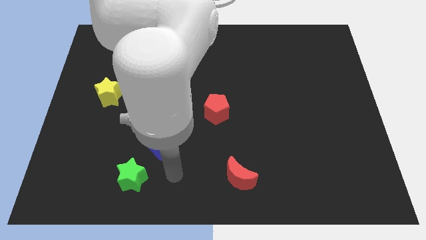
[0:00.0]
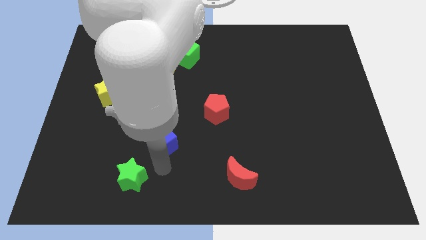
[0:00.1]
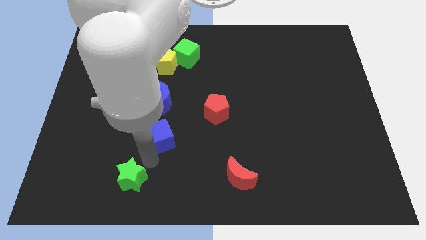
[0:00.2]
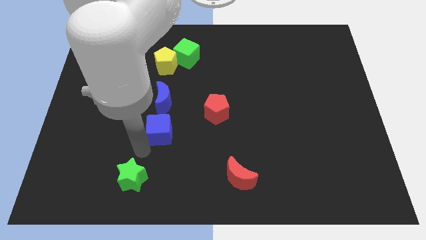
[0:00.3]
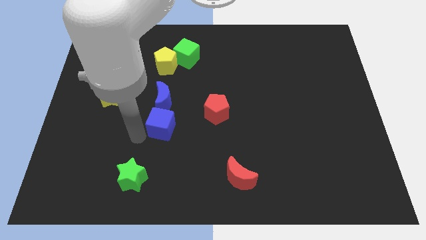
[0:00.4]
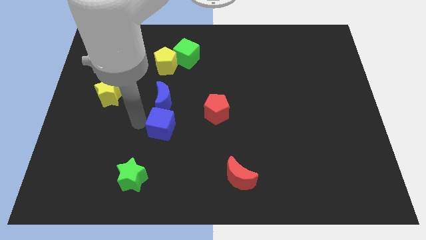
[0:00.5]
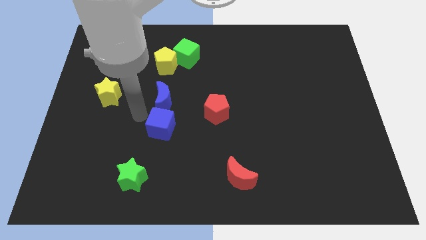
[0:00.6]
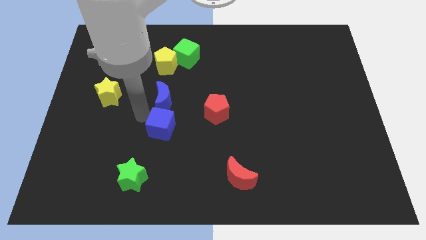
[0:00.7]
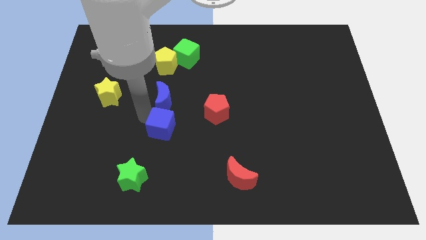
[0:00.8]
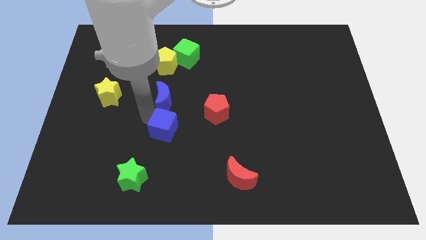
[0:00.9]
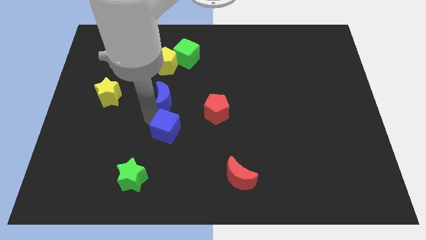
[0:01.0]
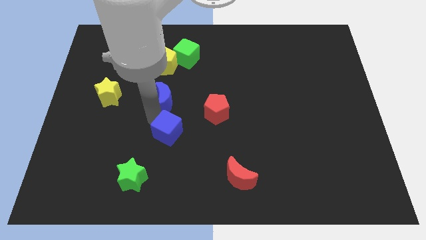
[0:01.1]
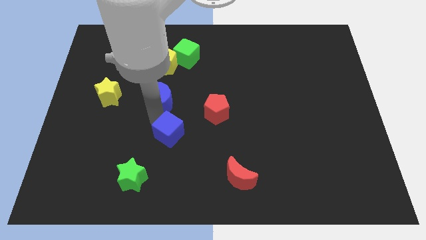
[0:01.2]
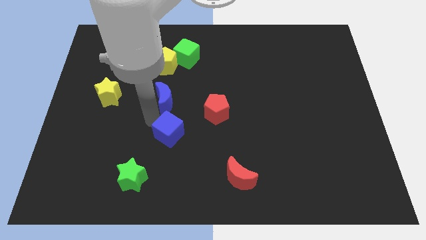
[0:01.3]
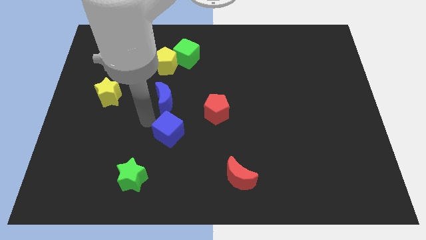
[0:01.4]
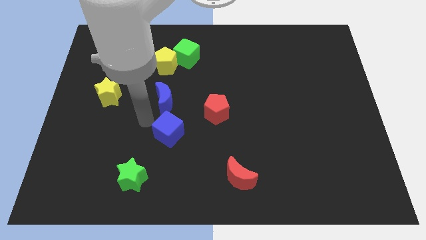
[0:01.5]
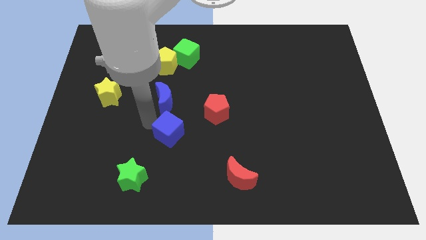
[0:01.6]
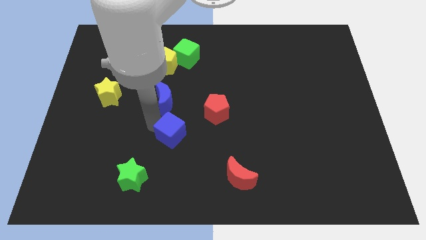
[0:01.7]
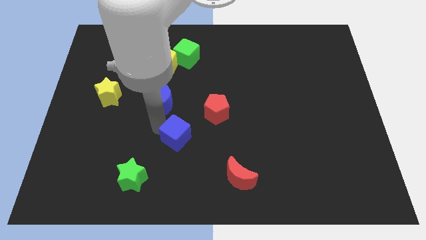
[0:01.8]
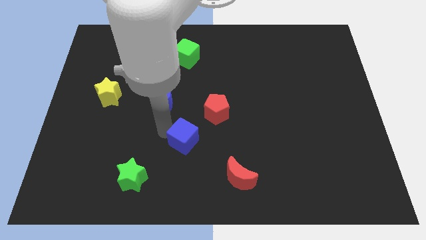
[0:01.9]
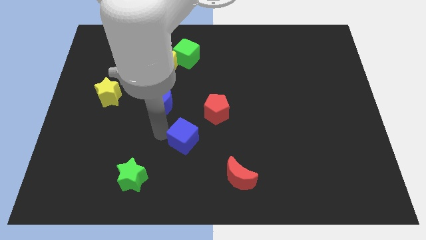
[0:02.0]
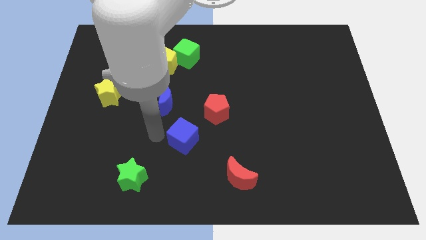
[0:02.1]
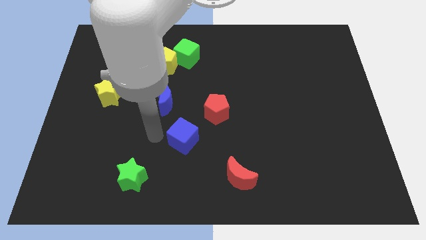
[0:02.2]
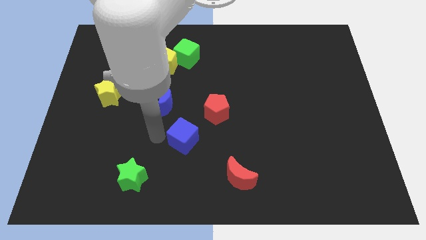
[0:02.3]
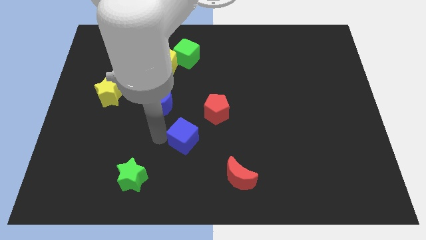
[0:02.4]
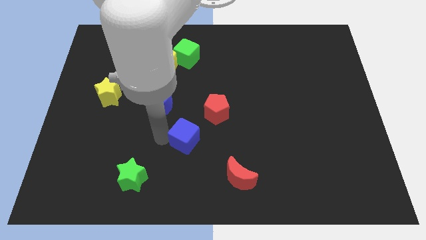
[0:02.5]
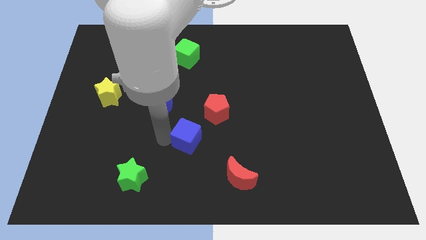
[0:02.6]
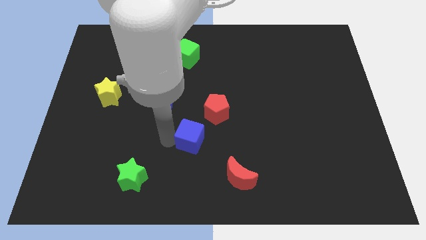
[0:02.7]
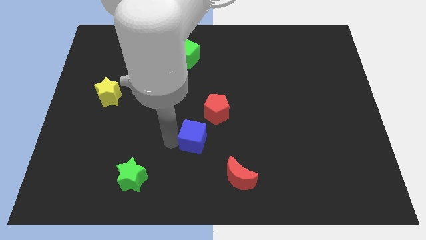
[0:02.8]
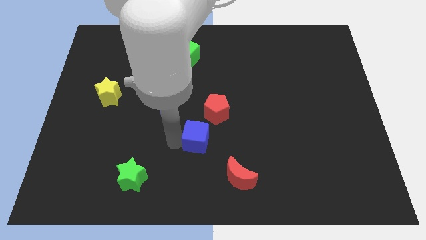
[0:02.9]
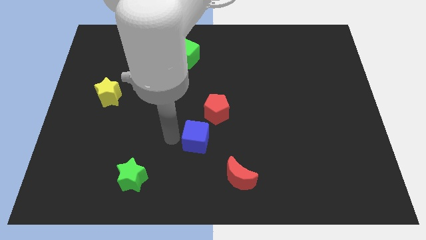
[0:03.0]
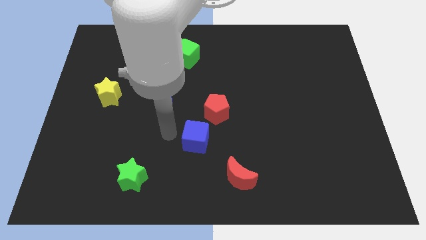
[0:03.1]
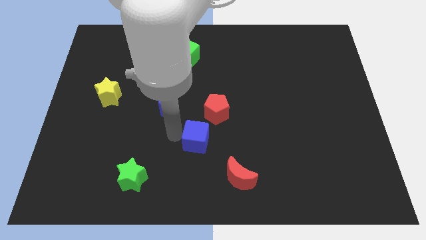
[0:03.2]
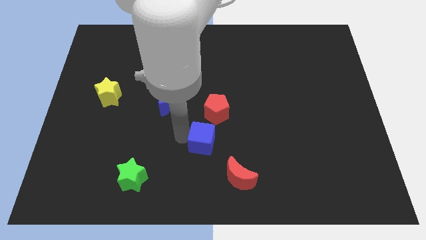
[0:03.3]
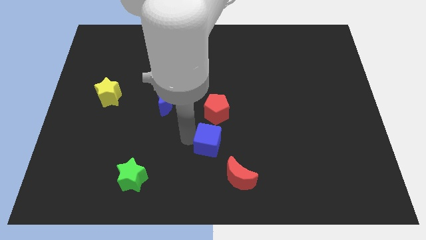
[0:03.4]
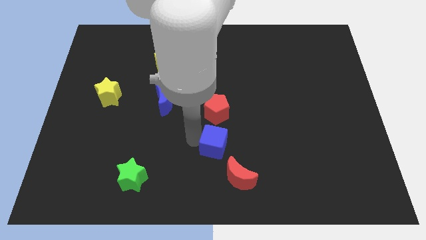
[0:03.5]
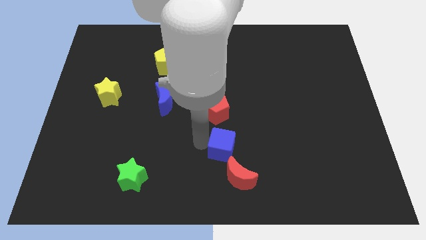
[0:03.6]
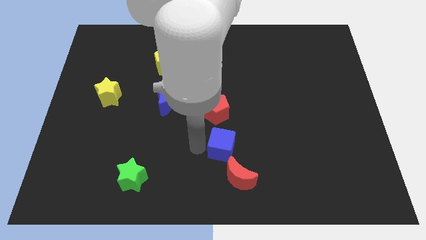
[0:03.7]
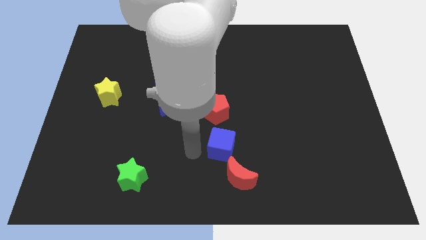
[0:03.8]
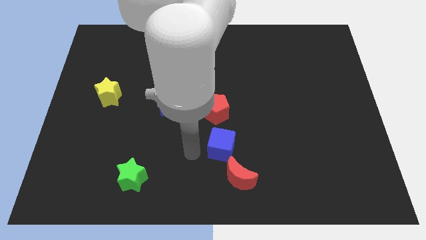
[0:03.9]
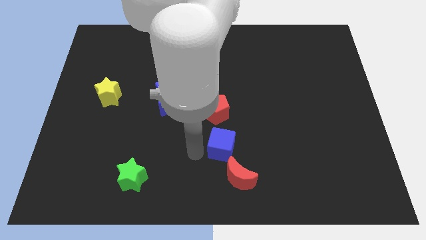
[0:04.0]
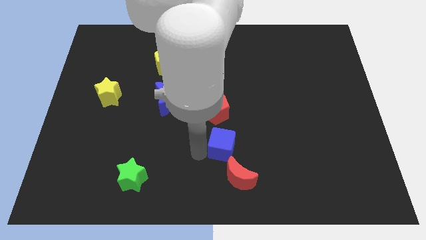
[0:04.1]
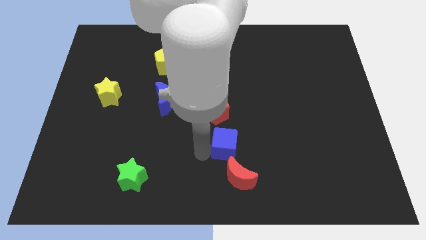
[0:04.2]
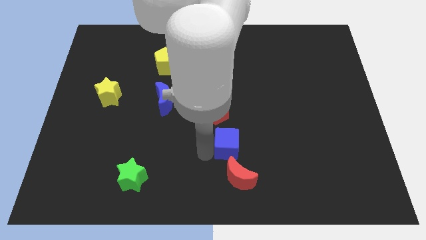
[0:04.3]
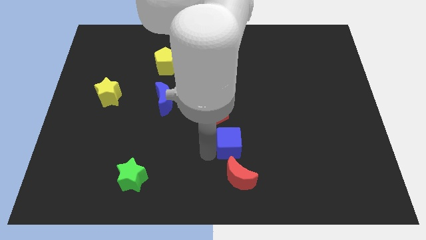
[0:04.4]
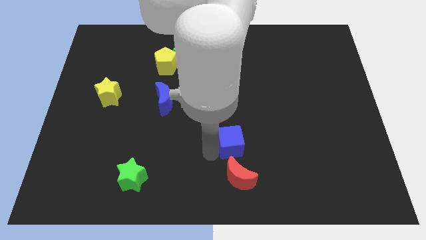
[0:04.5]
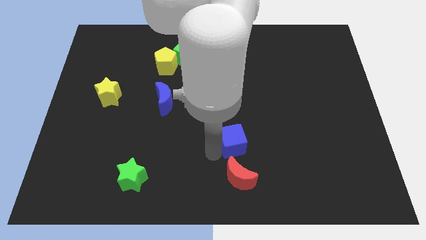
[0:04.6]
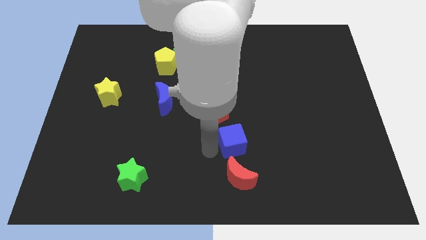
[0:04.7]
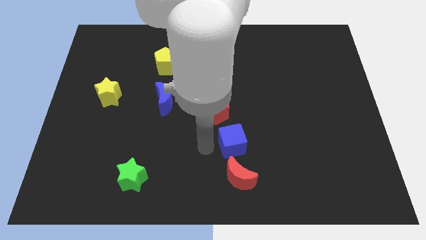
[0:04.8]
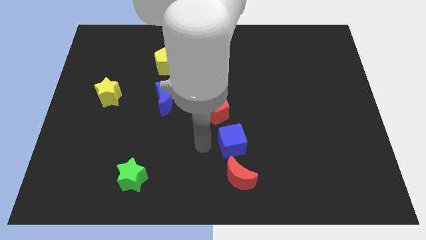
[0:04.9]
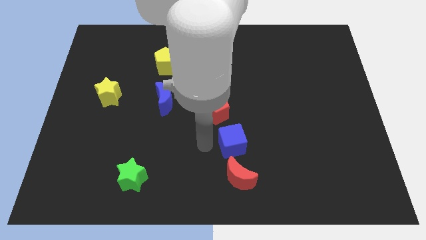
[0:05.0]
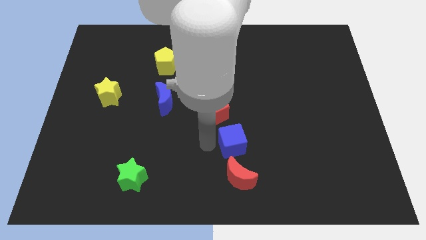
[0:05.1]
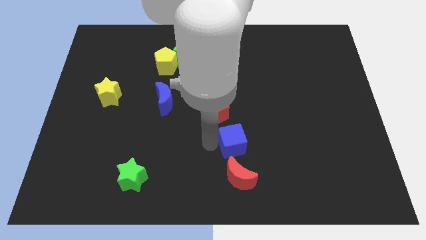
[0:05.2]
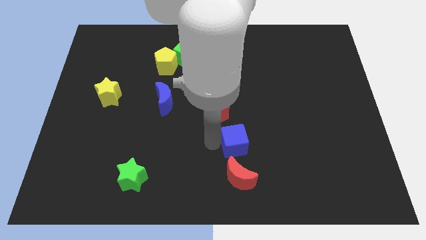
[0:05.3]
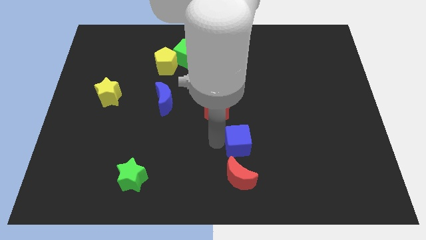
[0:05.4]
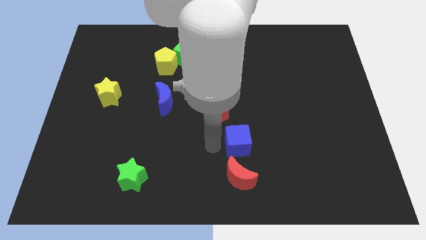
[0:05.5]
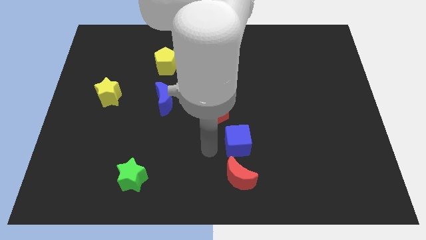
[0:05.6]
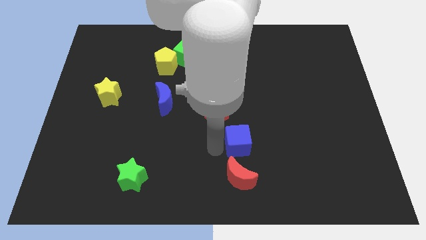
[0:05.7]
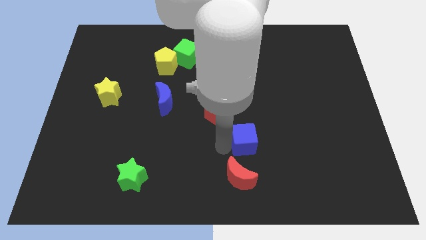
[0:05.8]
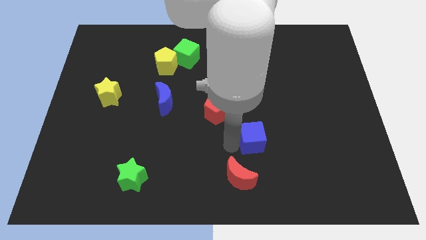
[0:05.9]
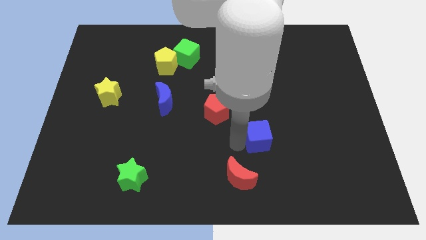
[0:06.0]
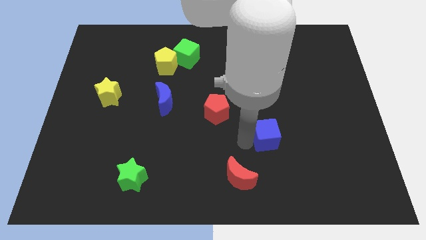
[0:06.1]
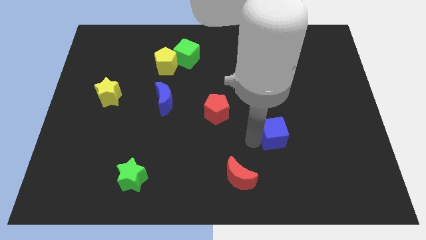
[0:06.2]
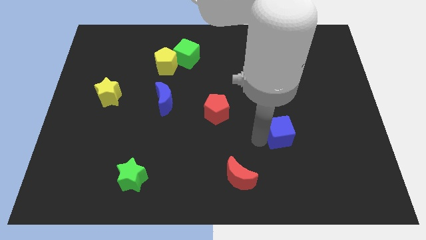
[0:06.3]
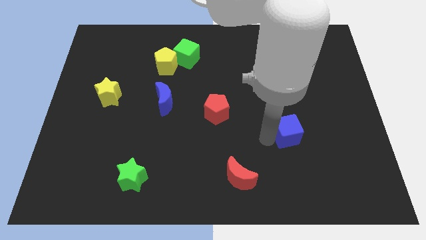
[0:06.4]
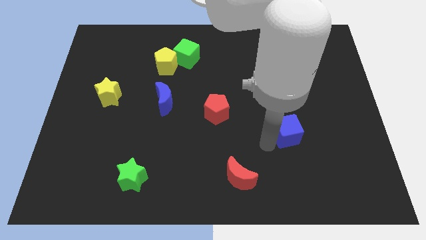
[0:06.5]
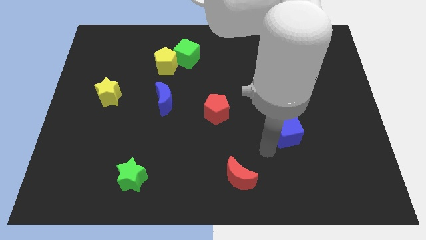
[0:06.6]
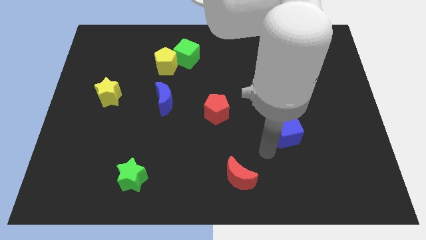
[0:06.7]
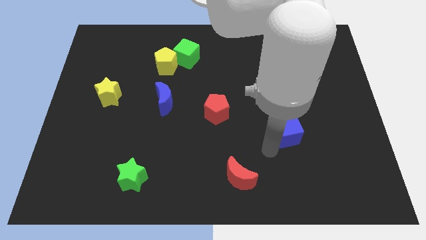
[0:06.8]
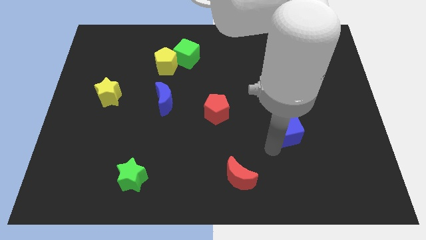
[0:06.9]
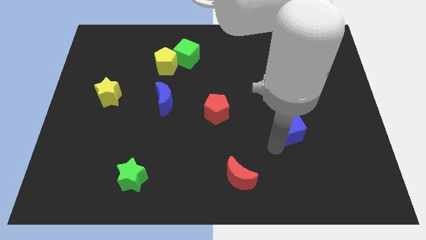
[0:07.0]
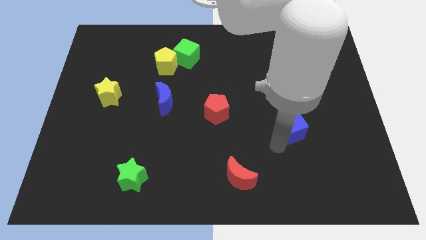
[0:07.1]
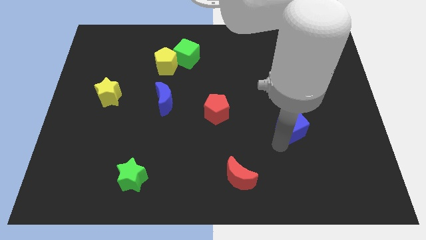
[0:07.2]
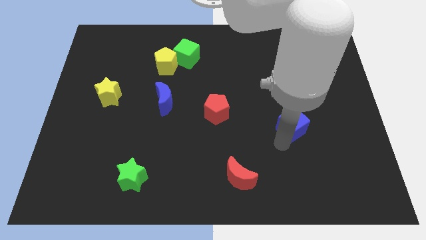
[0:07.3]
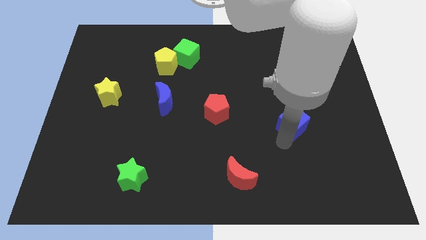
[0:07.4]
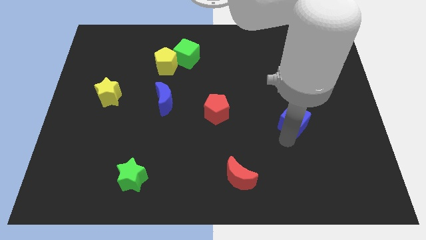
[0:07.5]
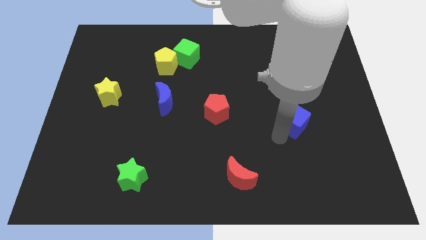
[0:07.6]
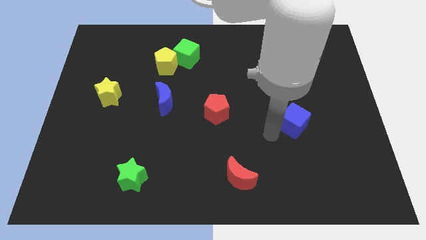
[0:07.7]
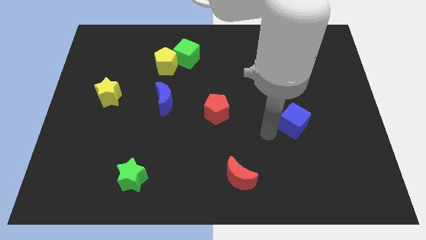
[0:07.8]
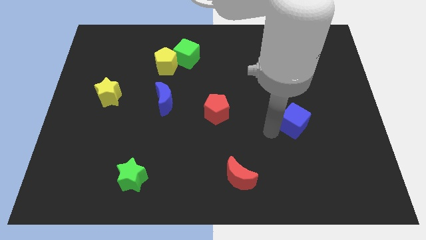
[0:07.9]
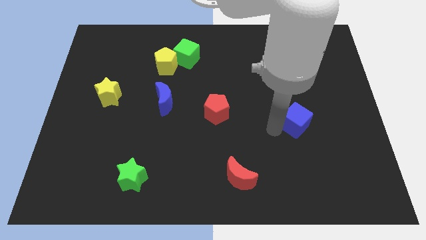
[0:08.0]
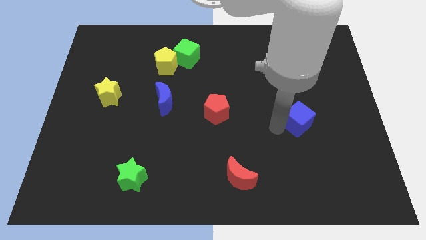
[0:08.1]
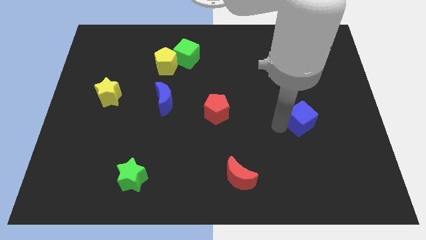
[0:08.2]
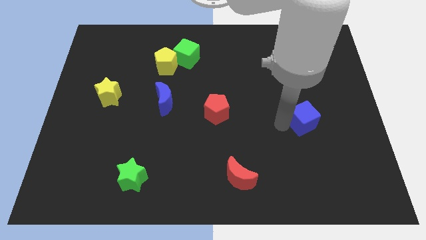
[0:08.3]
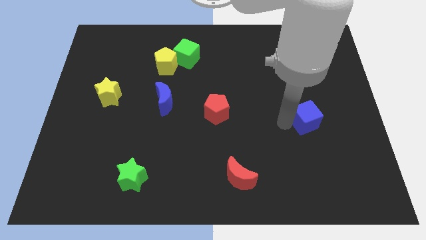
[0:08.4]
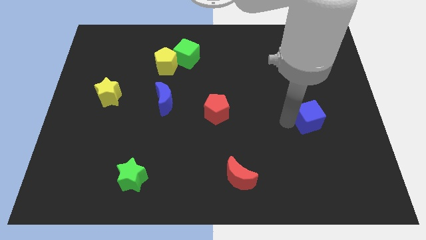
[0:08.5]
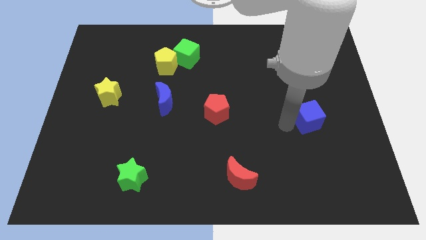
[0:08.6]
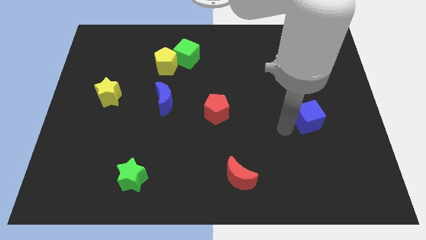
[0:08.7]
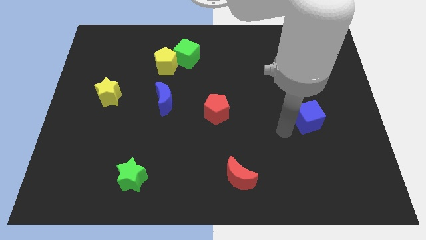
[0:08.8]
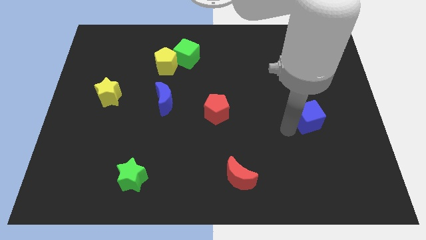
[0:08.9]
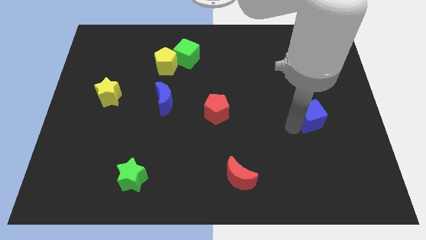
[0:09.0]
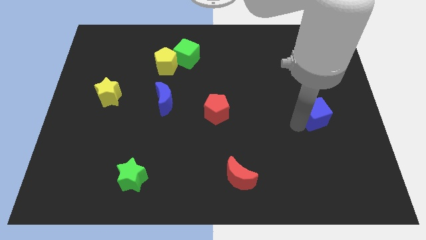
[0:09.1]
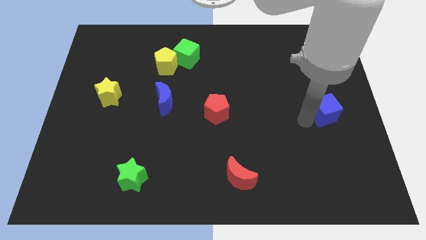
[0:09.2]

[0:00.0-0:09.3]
move the blue cube to the center right
